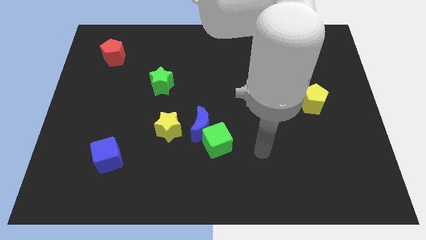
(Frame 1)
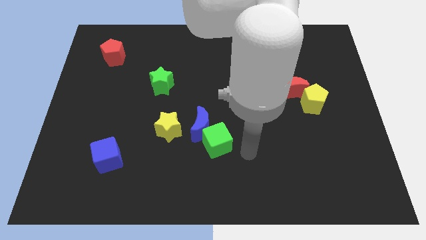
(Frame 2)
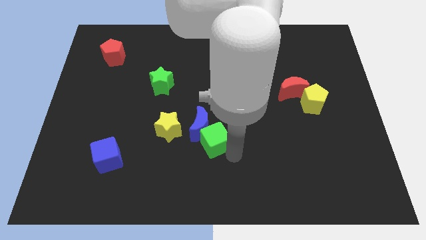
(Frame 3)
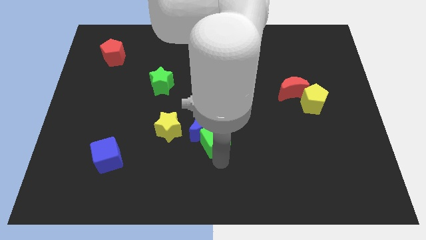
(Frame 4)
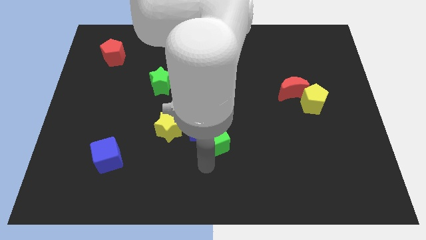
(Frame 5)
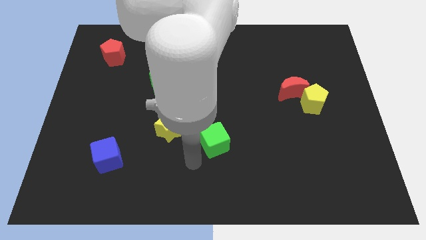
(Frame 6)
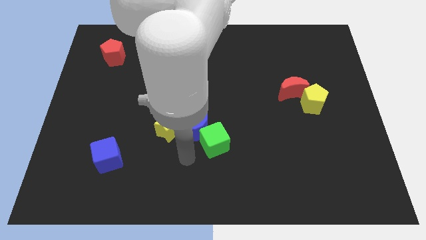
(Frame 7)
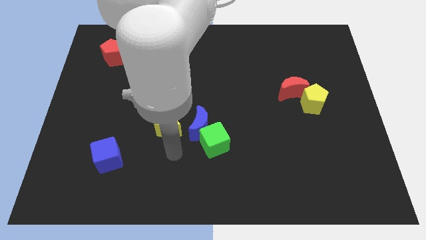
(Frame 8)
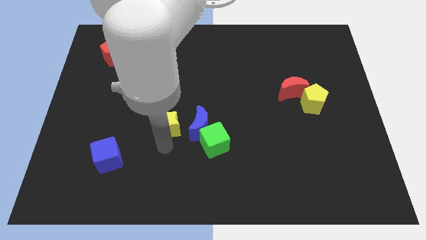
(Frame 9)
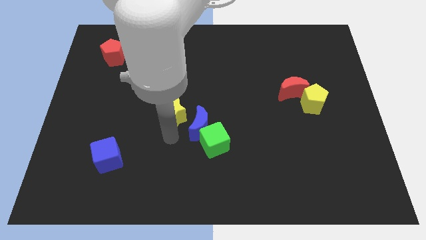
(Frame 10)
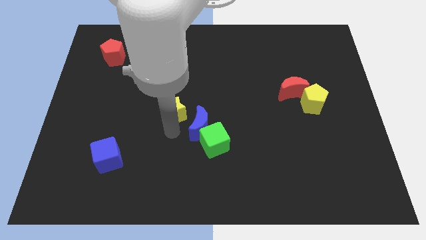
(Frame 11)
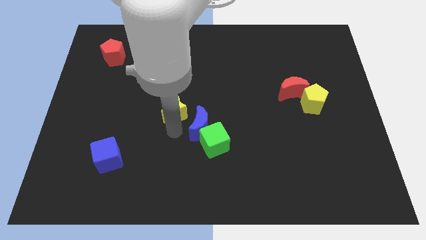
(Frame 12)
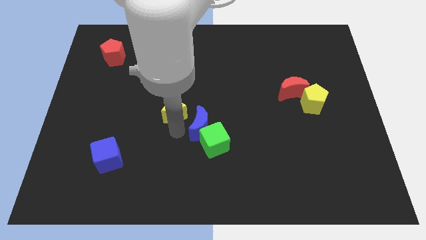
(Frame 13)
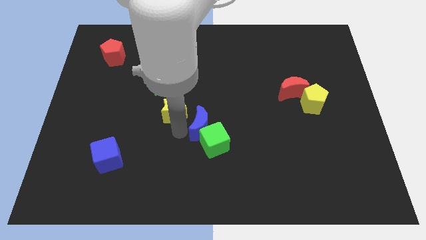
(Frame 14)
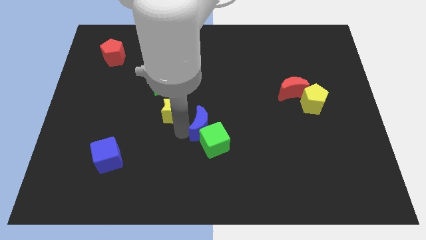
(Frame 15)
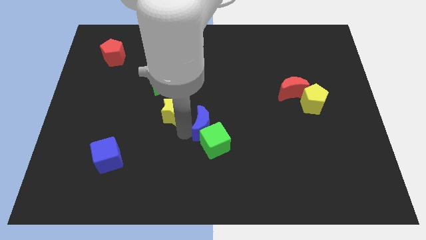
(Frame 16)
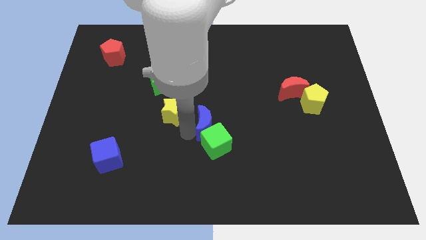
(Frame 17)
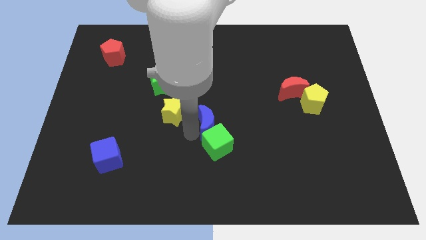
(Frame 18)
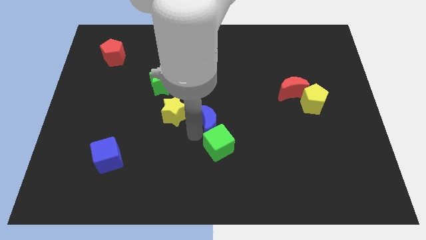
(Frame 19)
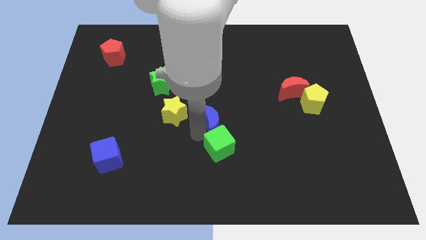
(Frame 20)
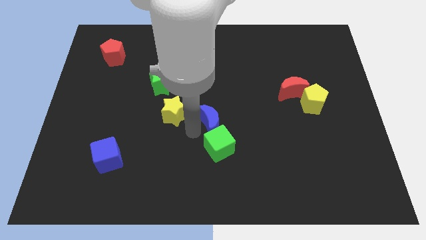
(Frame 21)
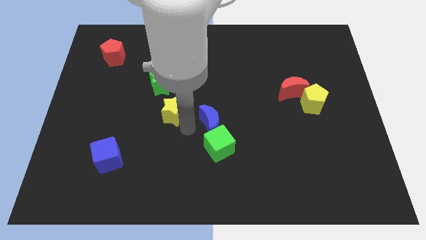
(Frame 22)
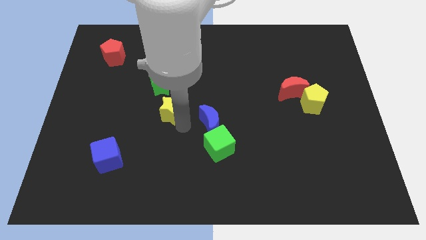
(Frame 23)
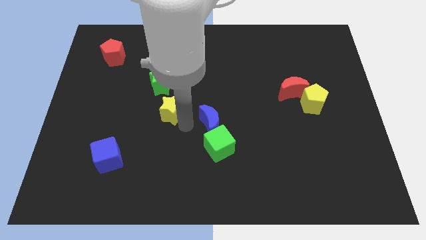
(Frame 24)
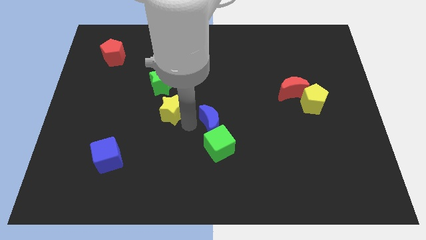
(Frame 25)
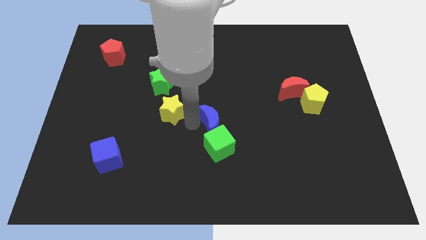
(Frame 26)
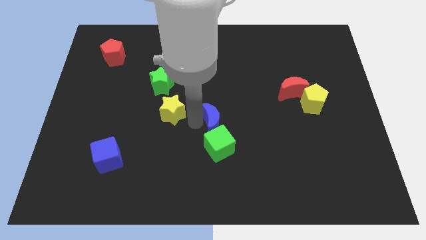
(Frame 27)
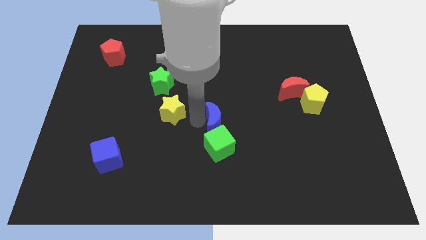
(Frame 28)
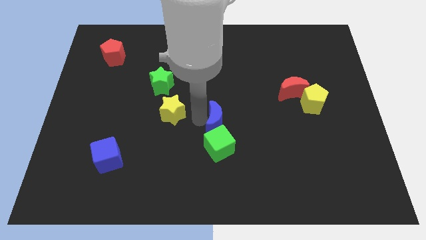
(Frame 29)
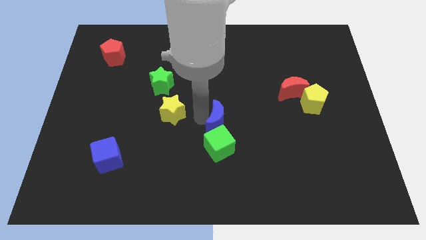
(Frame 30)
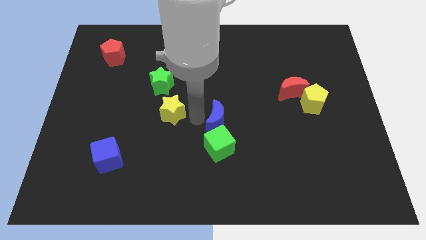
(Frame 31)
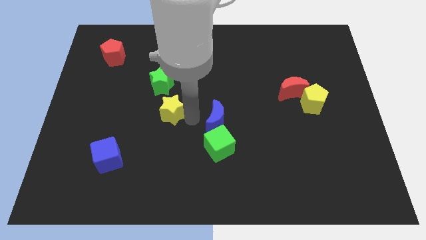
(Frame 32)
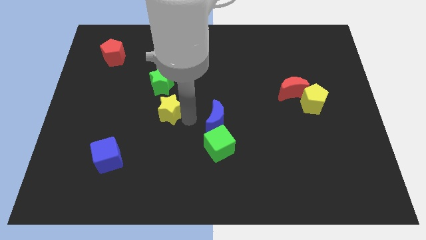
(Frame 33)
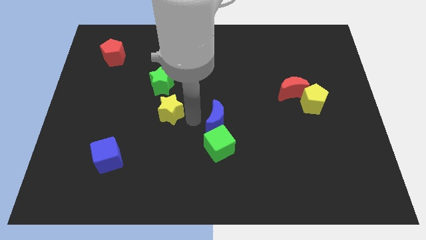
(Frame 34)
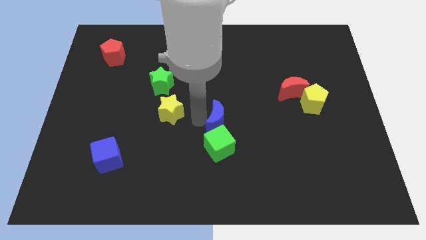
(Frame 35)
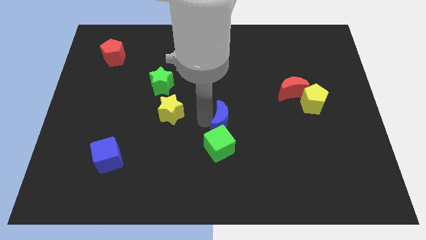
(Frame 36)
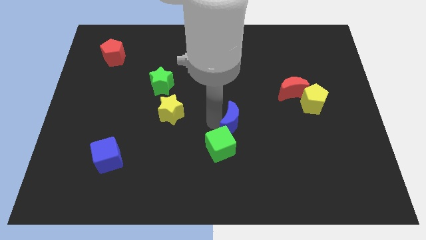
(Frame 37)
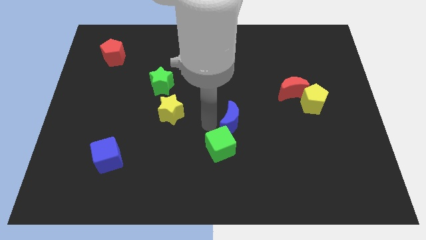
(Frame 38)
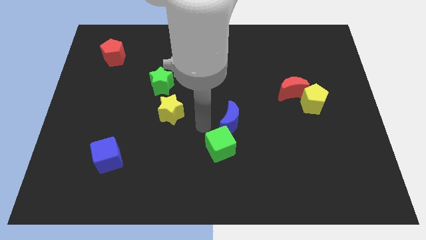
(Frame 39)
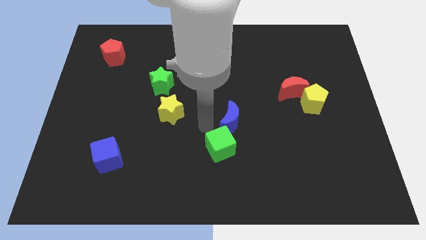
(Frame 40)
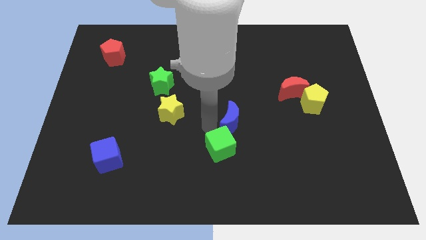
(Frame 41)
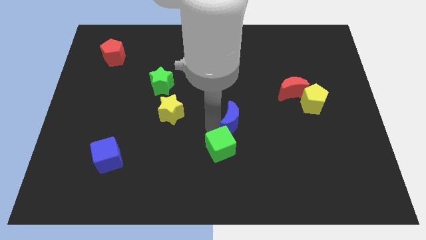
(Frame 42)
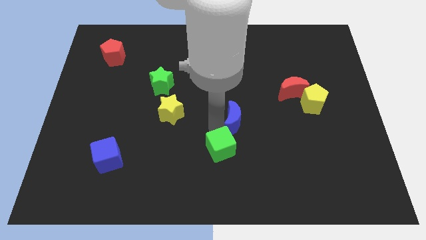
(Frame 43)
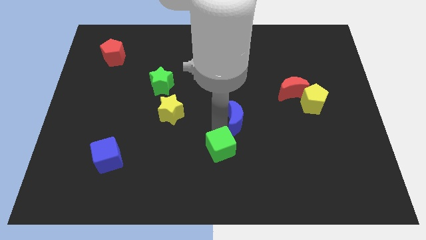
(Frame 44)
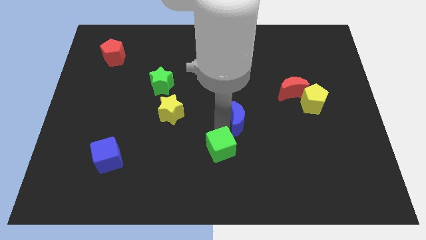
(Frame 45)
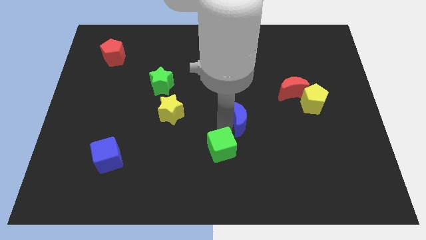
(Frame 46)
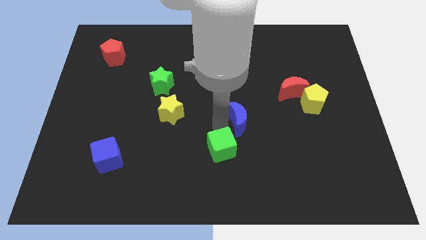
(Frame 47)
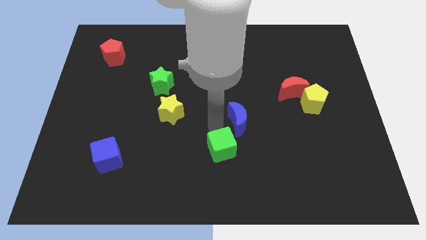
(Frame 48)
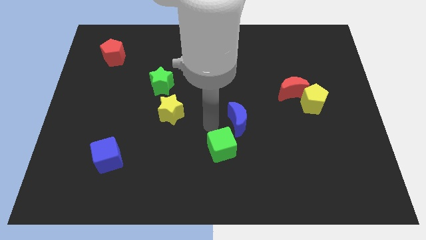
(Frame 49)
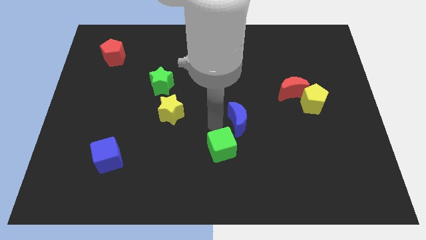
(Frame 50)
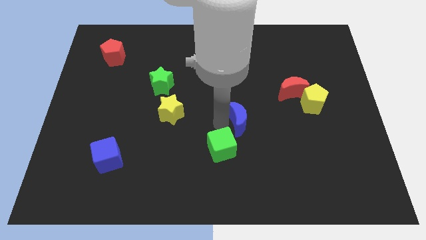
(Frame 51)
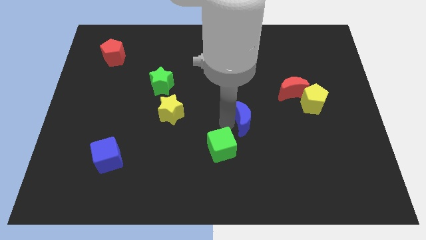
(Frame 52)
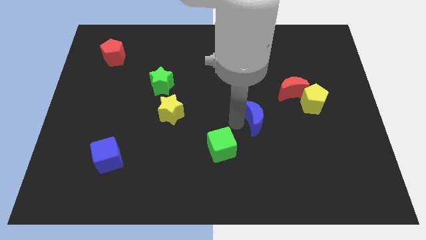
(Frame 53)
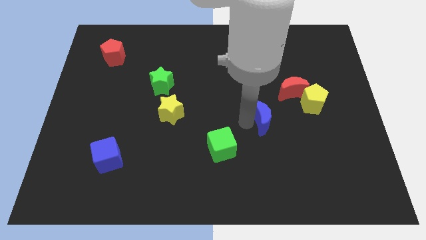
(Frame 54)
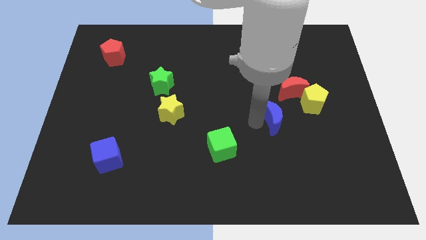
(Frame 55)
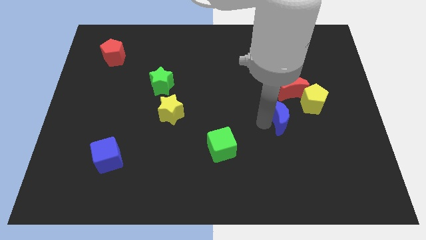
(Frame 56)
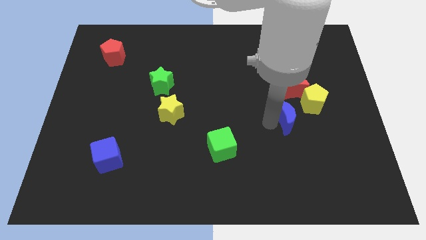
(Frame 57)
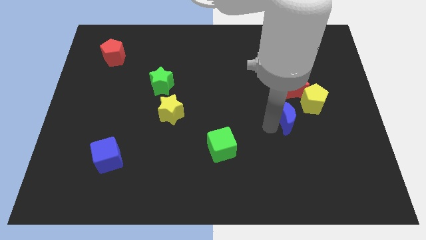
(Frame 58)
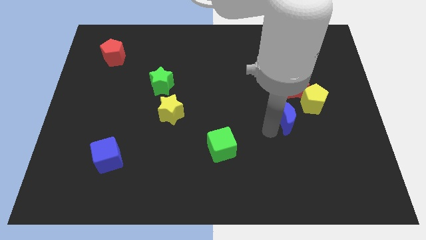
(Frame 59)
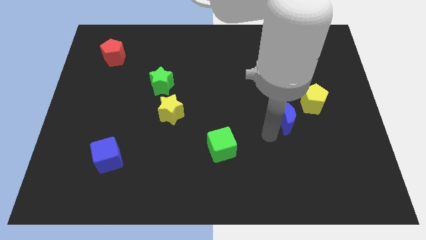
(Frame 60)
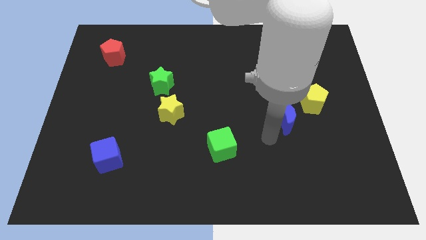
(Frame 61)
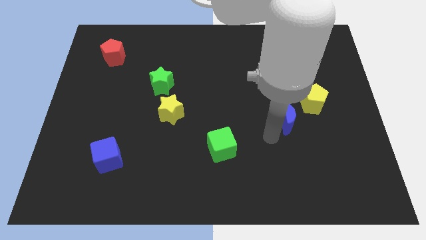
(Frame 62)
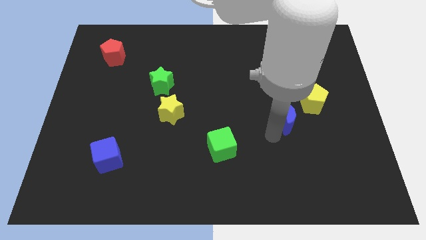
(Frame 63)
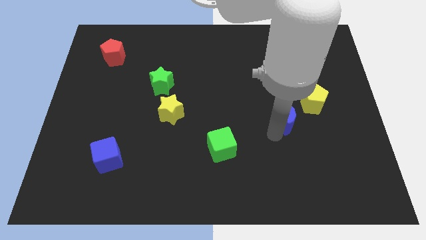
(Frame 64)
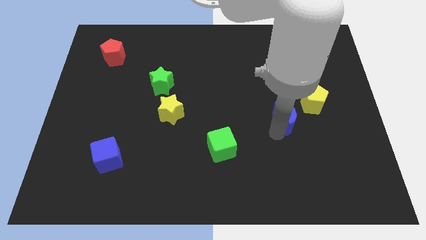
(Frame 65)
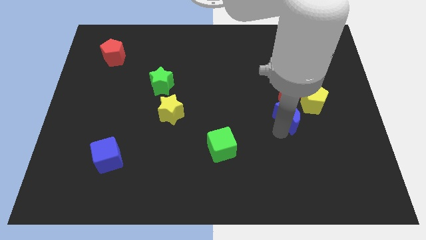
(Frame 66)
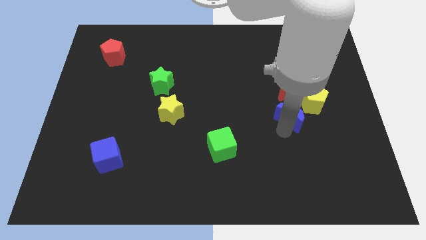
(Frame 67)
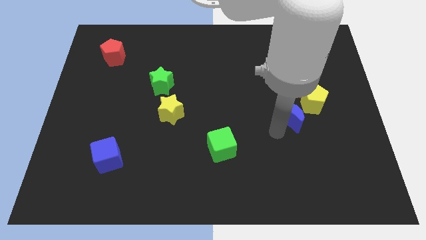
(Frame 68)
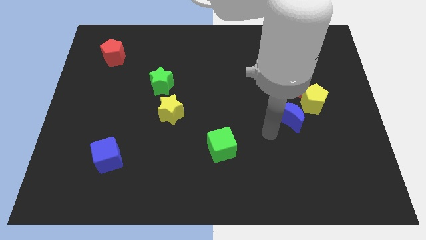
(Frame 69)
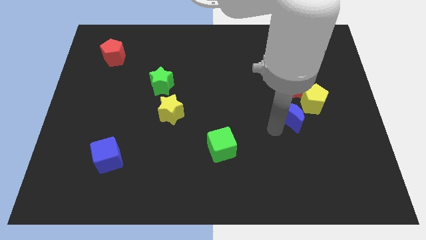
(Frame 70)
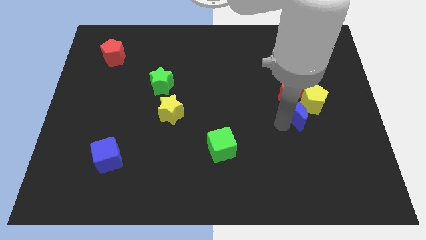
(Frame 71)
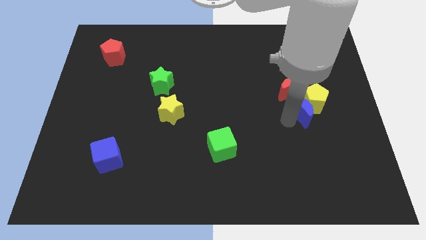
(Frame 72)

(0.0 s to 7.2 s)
put the blue moon close to the yellow pentagon
